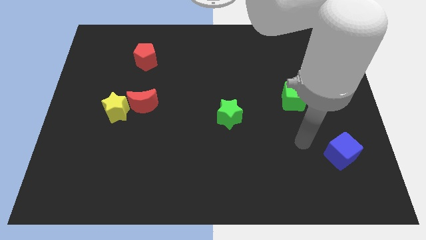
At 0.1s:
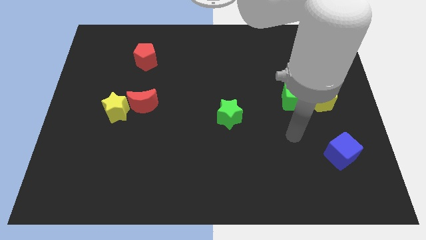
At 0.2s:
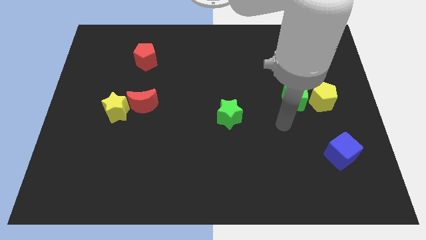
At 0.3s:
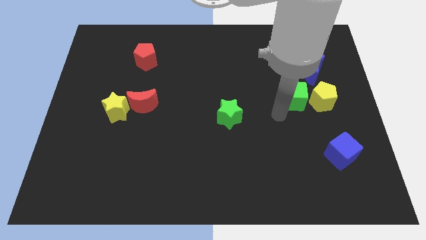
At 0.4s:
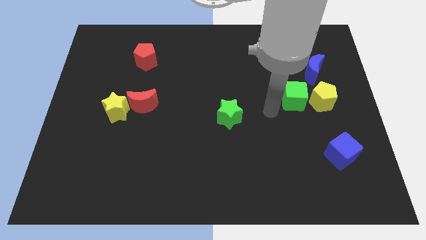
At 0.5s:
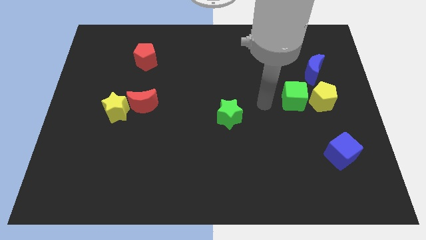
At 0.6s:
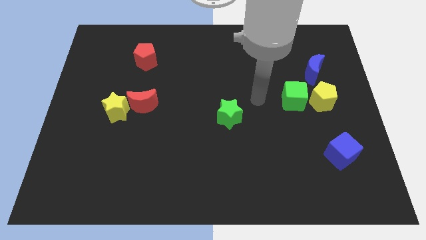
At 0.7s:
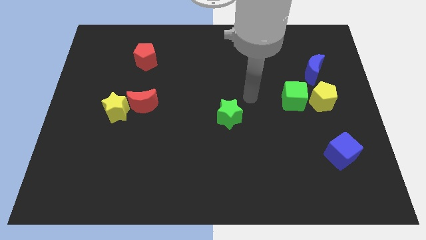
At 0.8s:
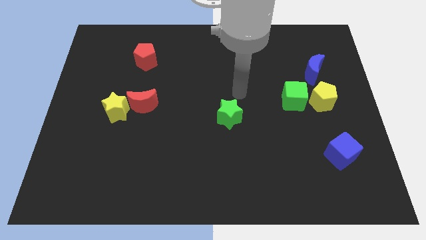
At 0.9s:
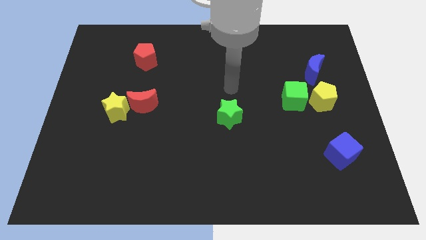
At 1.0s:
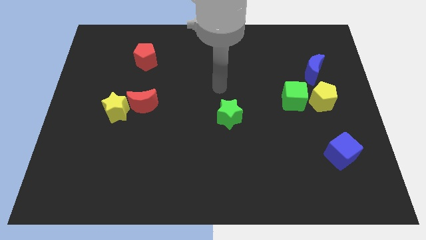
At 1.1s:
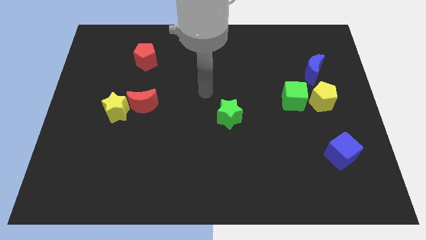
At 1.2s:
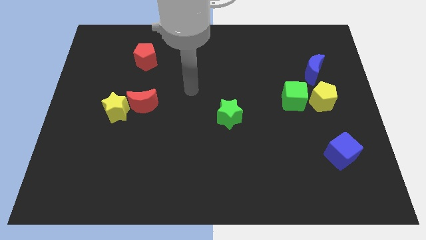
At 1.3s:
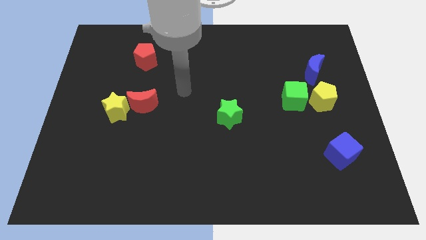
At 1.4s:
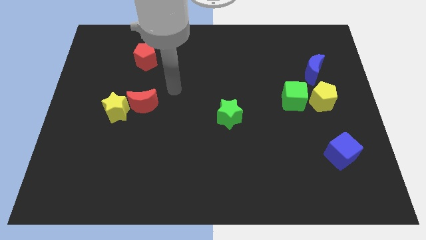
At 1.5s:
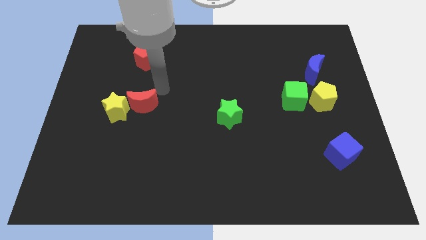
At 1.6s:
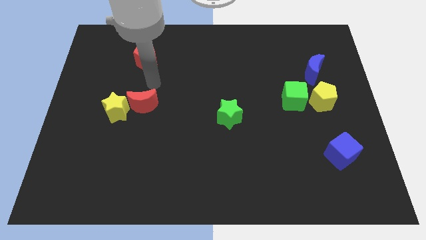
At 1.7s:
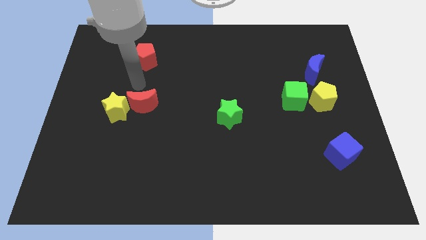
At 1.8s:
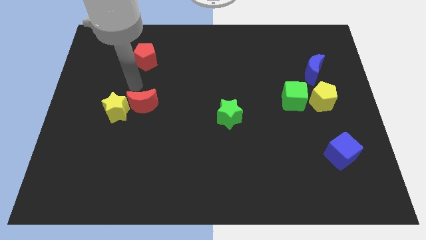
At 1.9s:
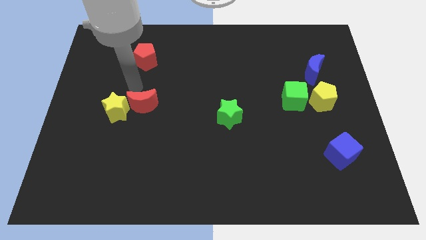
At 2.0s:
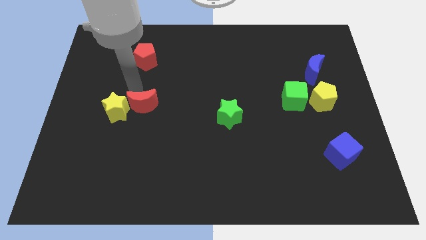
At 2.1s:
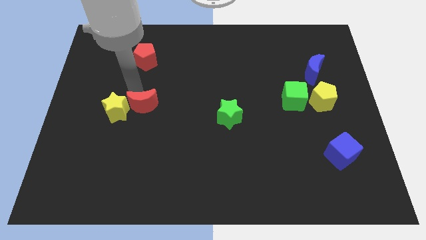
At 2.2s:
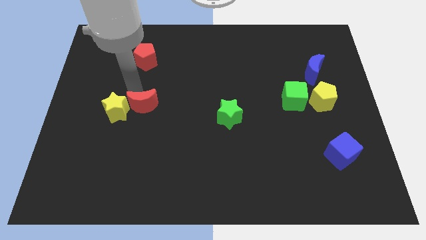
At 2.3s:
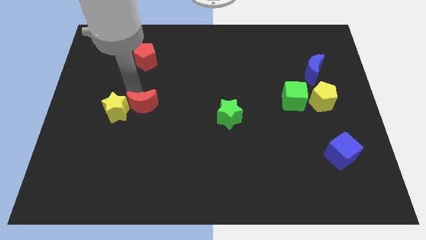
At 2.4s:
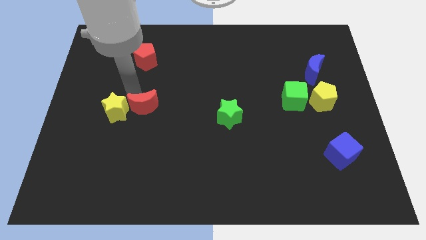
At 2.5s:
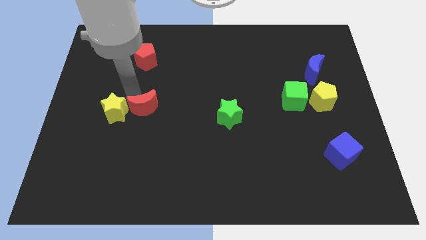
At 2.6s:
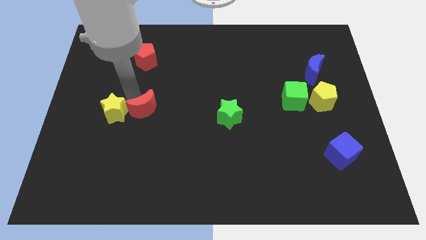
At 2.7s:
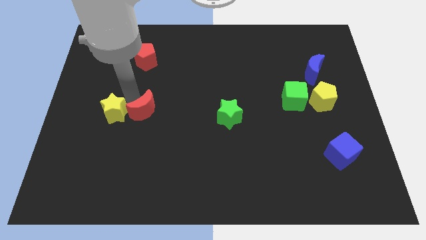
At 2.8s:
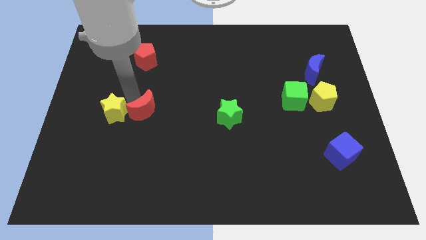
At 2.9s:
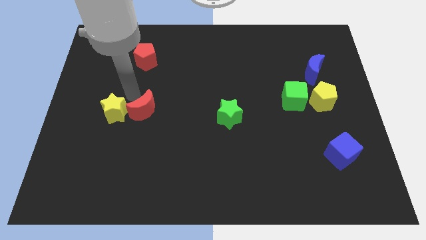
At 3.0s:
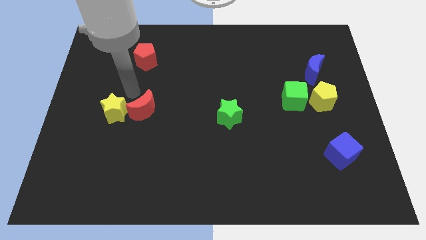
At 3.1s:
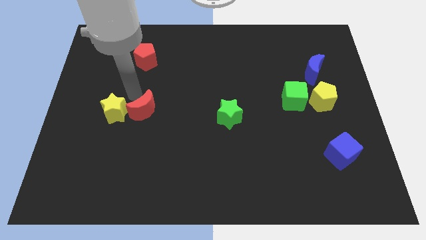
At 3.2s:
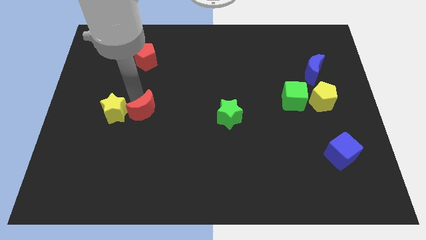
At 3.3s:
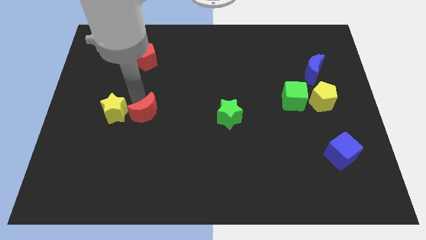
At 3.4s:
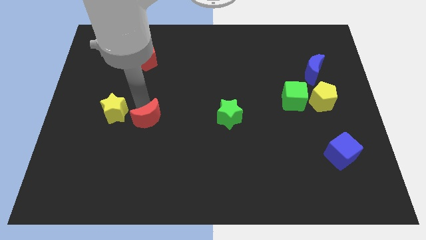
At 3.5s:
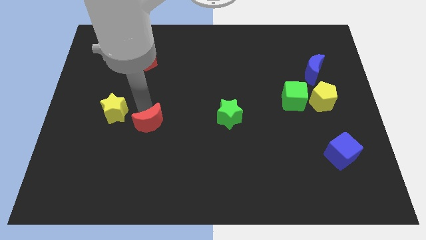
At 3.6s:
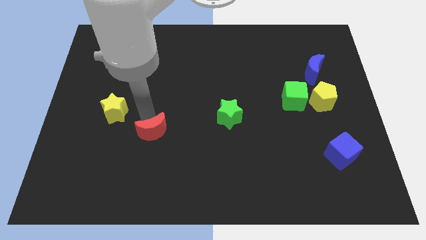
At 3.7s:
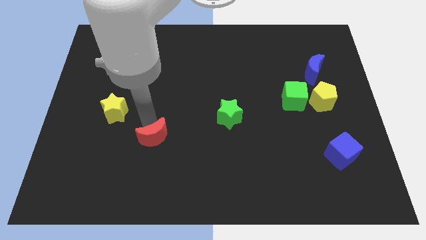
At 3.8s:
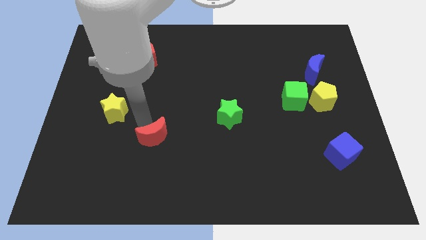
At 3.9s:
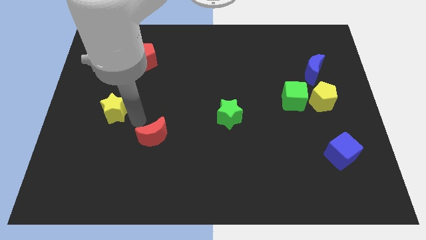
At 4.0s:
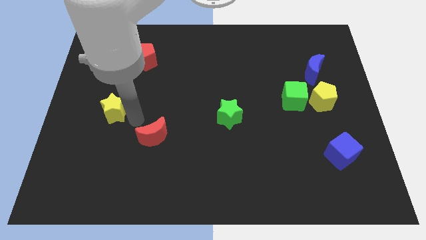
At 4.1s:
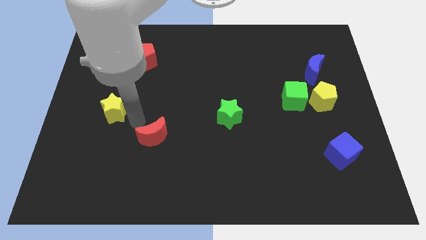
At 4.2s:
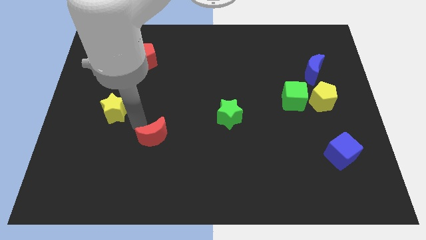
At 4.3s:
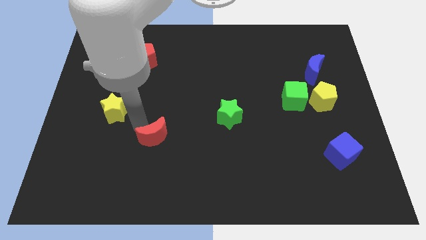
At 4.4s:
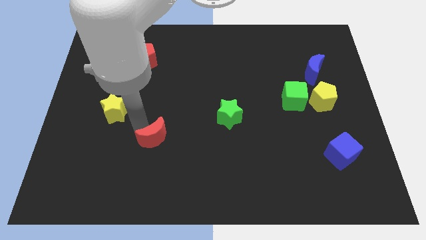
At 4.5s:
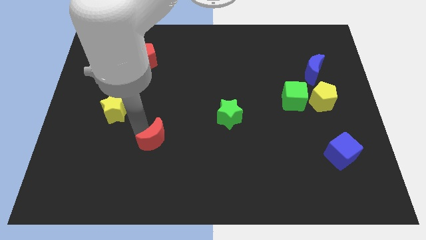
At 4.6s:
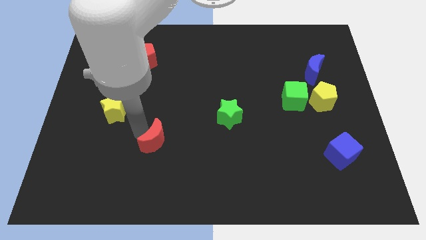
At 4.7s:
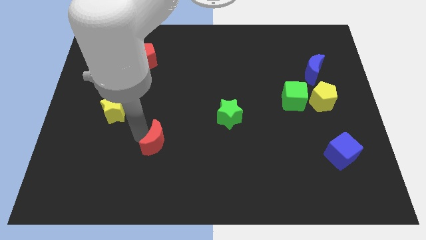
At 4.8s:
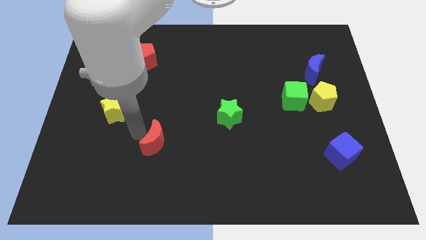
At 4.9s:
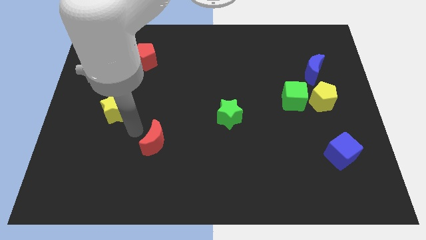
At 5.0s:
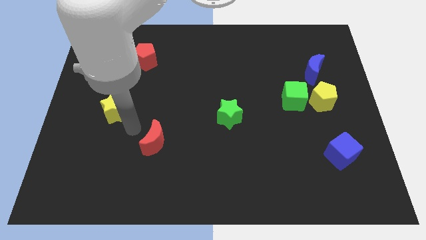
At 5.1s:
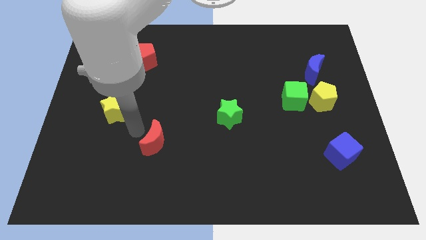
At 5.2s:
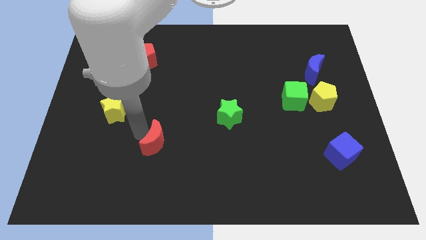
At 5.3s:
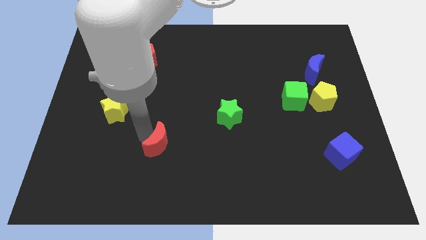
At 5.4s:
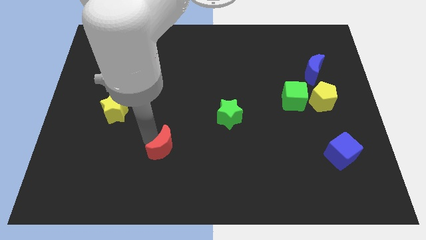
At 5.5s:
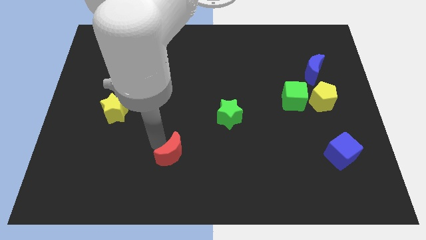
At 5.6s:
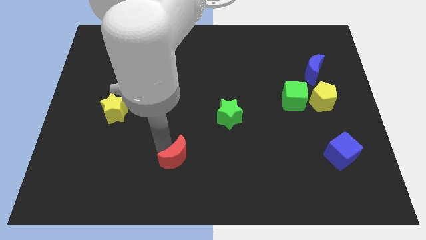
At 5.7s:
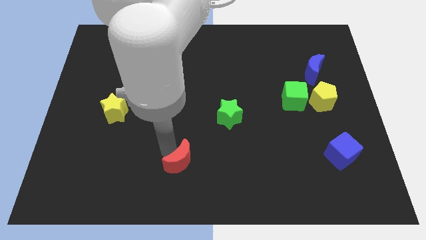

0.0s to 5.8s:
put the red moon to the bottom
